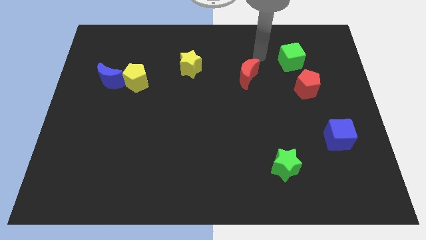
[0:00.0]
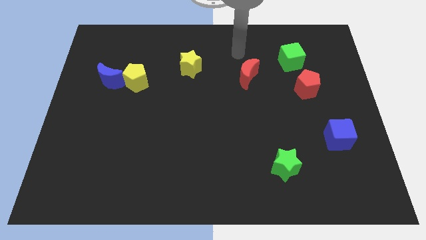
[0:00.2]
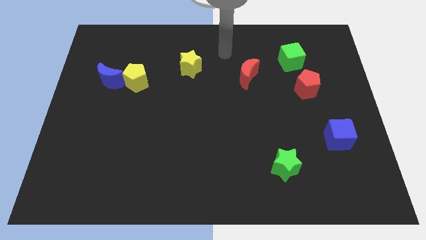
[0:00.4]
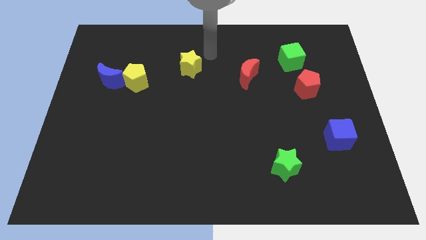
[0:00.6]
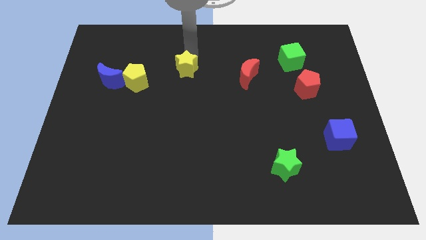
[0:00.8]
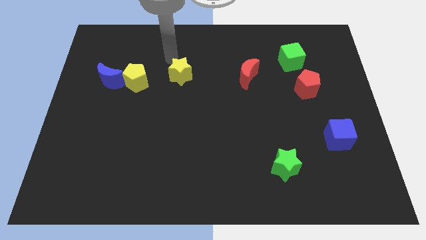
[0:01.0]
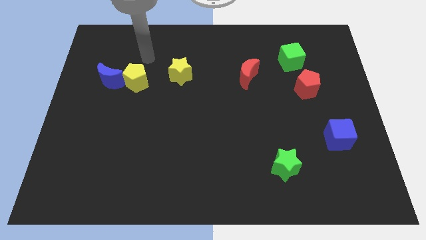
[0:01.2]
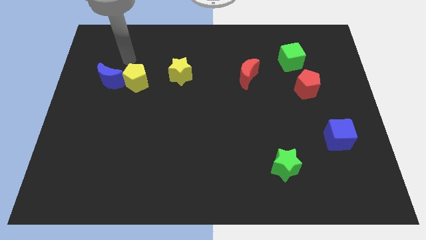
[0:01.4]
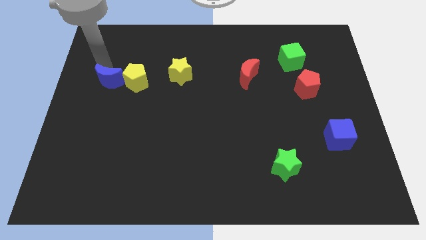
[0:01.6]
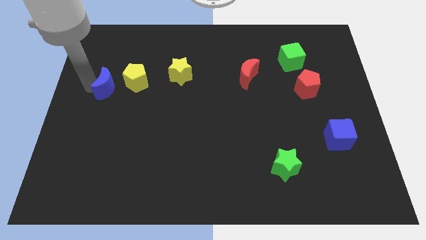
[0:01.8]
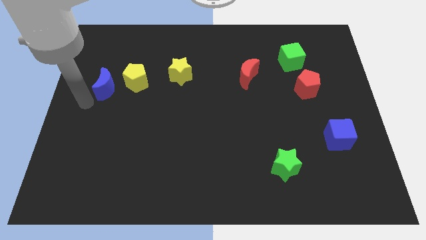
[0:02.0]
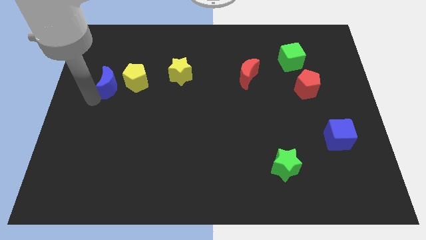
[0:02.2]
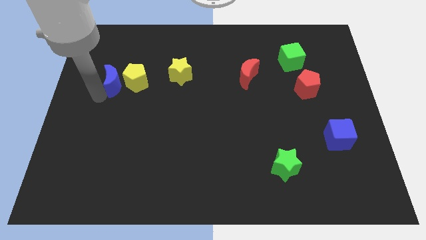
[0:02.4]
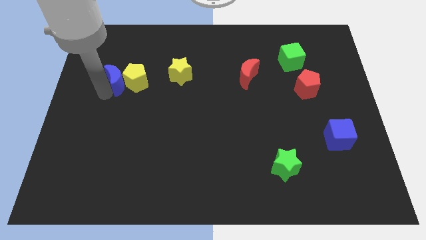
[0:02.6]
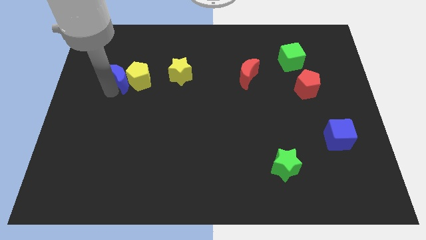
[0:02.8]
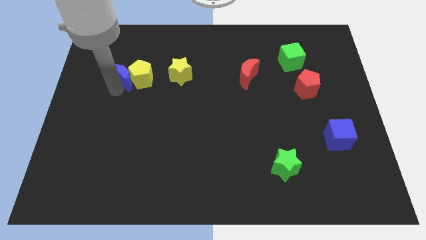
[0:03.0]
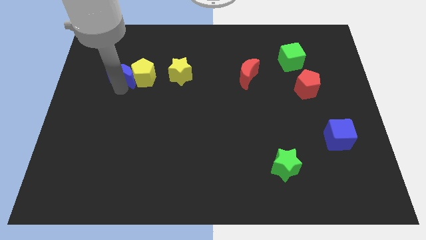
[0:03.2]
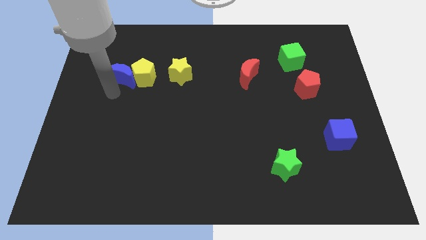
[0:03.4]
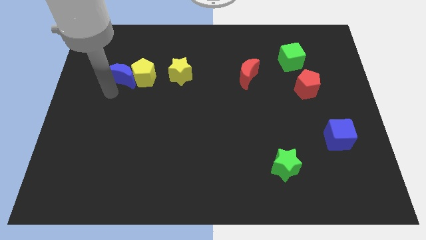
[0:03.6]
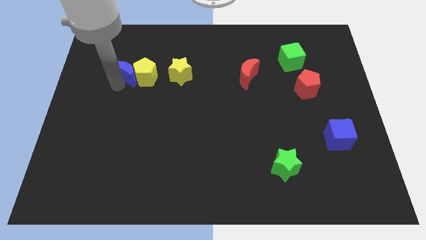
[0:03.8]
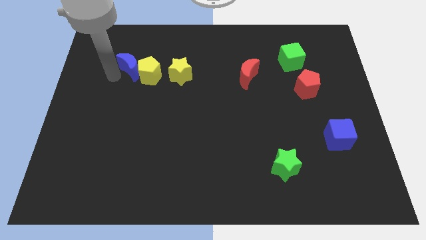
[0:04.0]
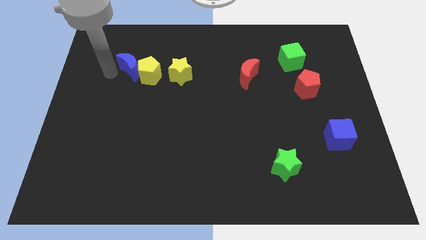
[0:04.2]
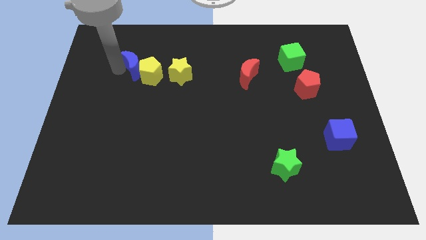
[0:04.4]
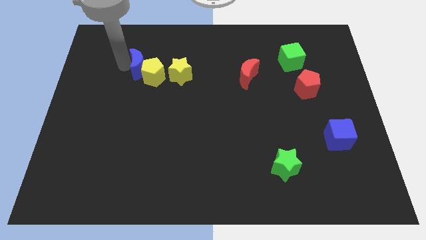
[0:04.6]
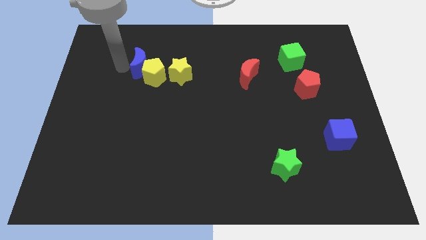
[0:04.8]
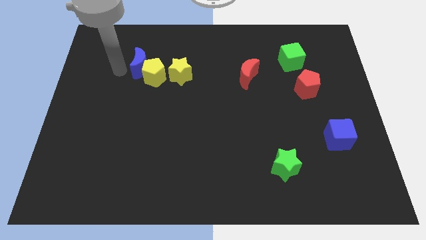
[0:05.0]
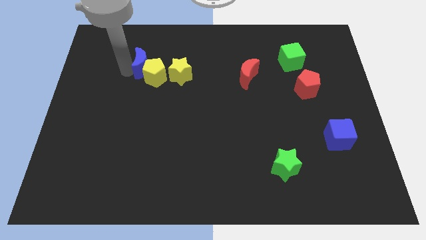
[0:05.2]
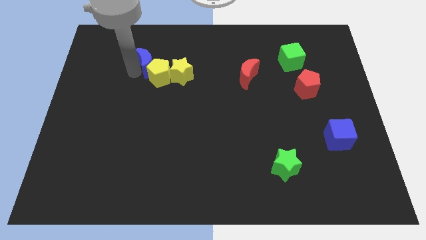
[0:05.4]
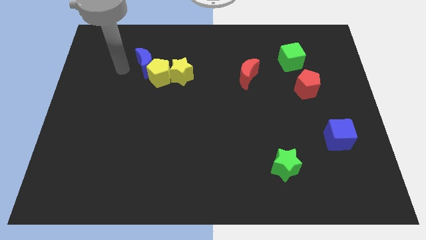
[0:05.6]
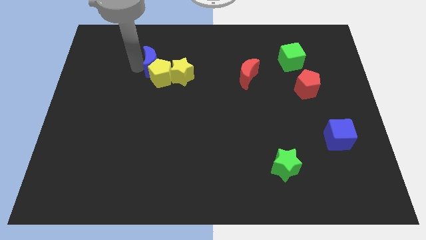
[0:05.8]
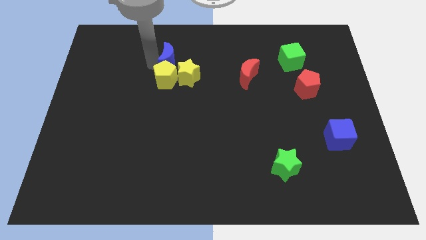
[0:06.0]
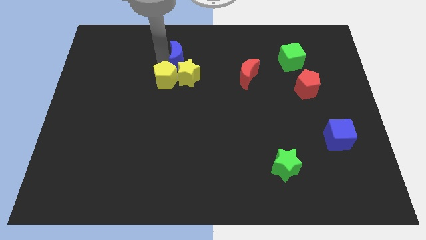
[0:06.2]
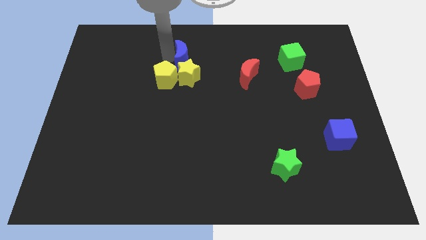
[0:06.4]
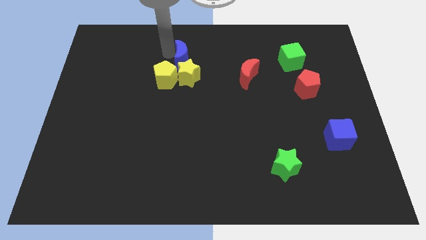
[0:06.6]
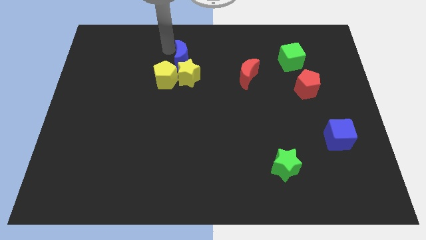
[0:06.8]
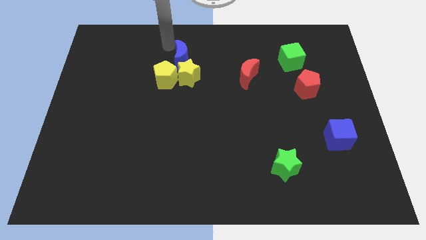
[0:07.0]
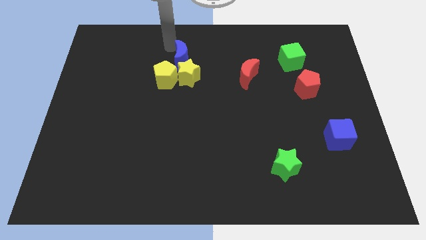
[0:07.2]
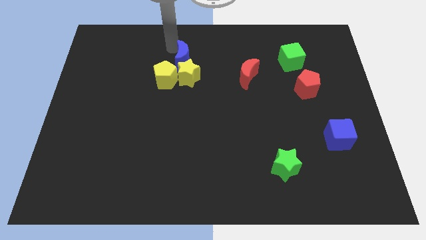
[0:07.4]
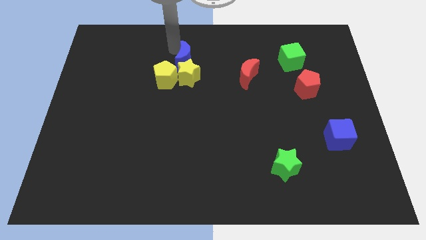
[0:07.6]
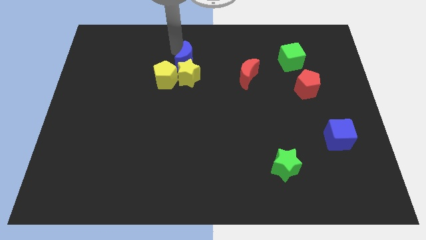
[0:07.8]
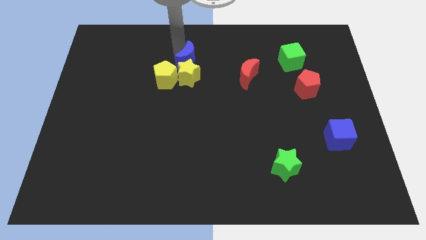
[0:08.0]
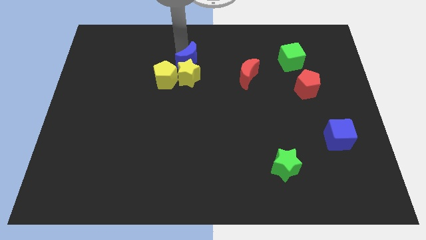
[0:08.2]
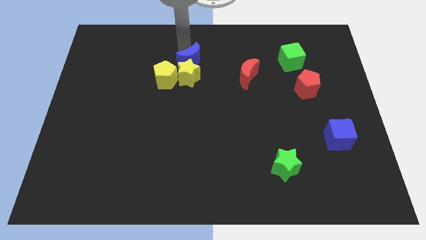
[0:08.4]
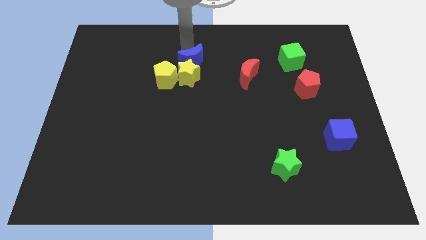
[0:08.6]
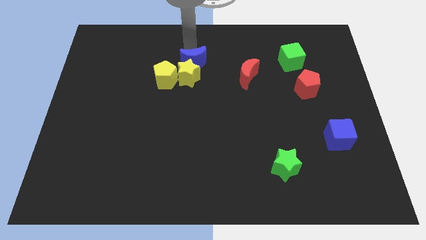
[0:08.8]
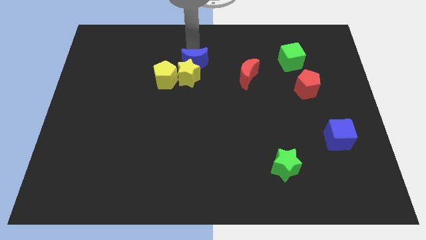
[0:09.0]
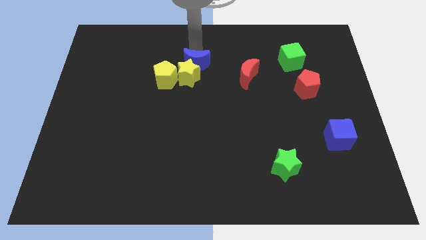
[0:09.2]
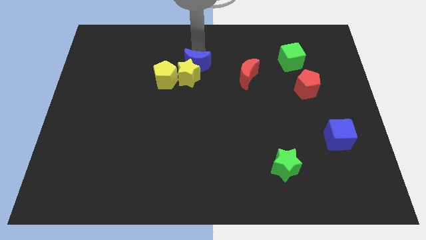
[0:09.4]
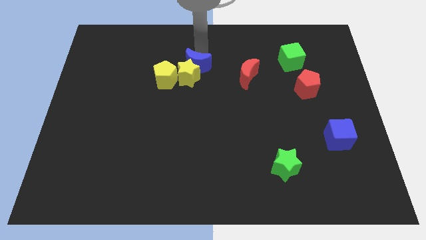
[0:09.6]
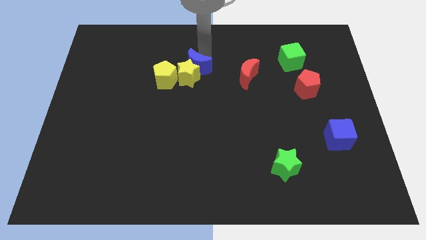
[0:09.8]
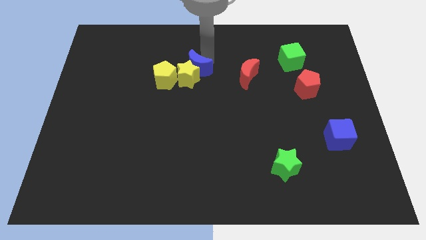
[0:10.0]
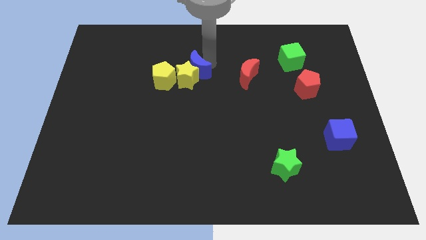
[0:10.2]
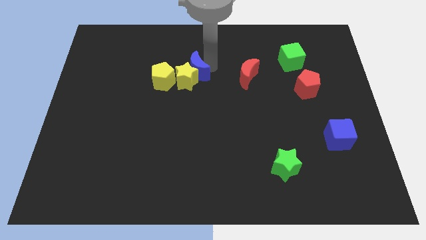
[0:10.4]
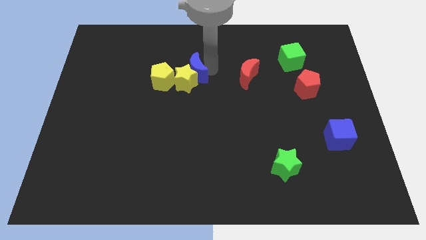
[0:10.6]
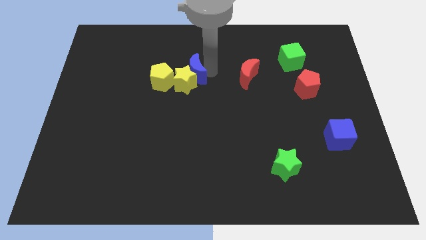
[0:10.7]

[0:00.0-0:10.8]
slide the blue moon diagonally up and to the right of the yellow pentagon

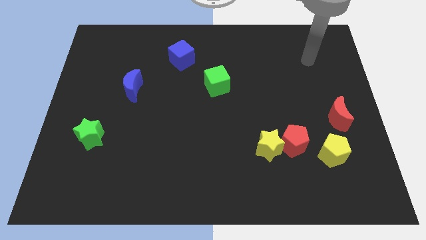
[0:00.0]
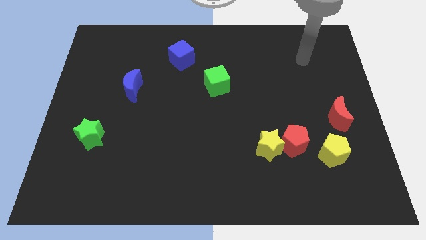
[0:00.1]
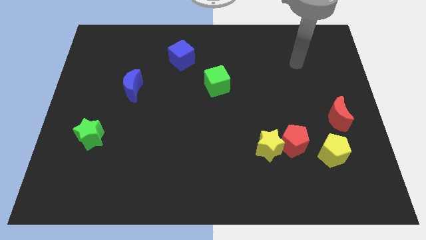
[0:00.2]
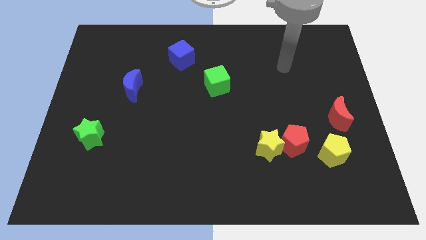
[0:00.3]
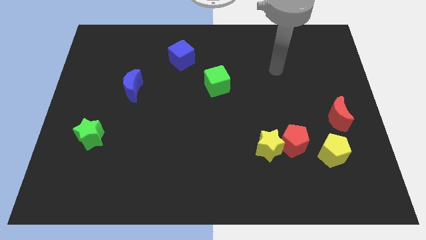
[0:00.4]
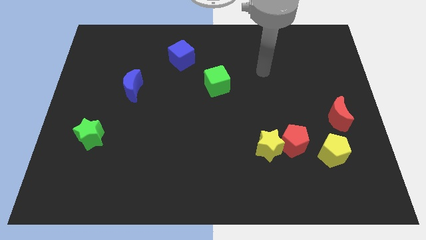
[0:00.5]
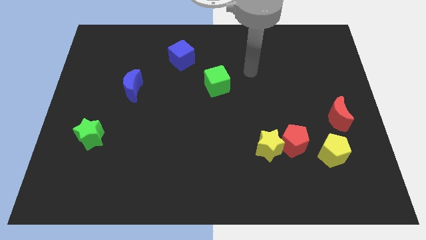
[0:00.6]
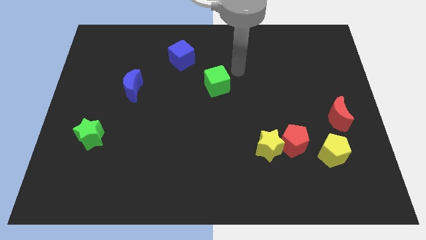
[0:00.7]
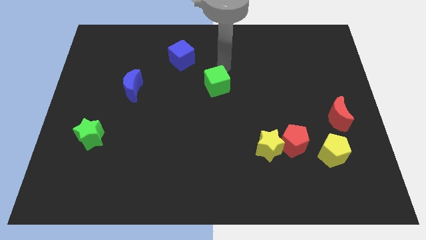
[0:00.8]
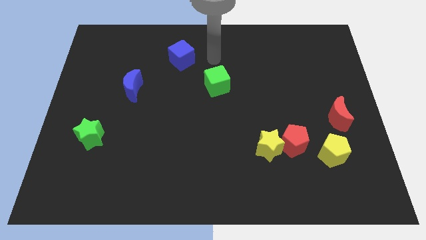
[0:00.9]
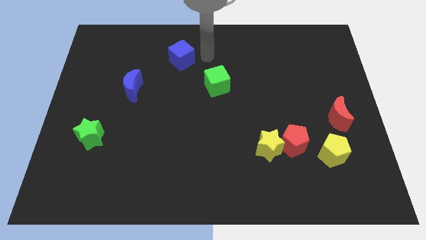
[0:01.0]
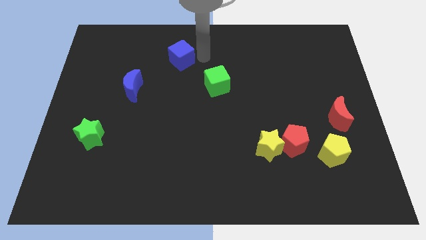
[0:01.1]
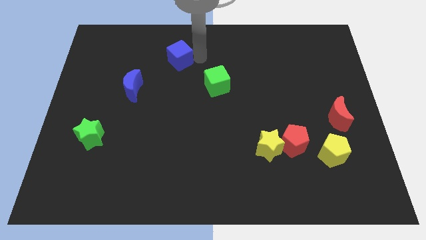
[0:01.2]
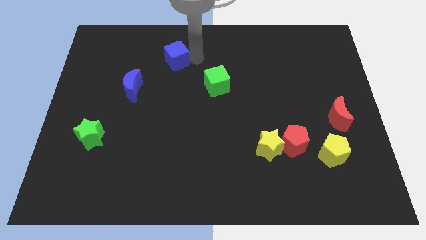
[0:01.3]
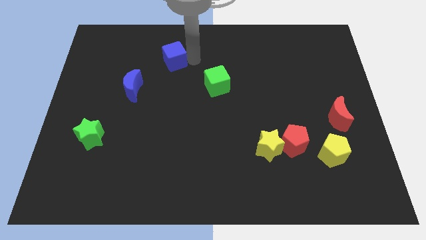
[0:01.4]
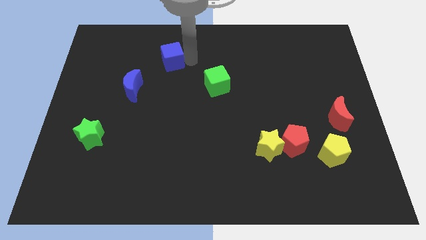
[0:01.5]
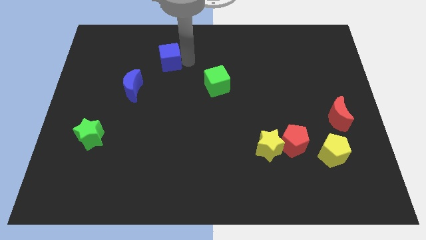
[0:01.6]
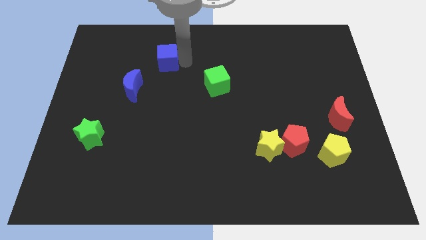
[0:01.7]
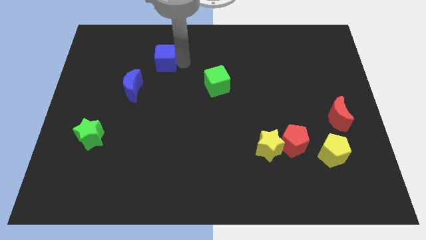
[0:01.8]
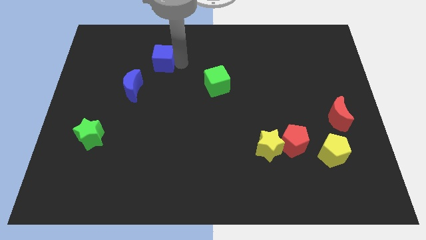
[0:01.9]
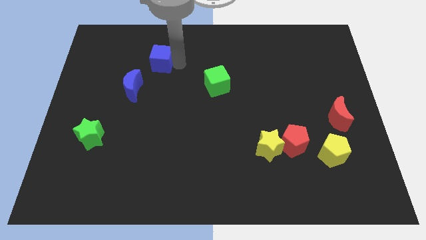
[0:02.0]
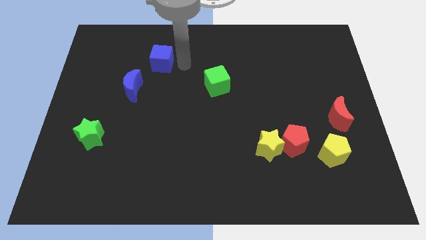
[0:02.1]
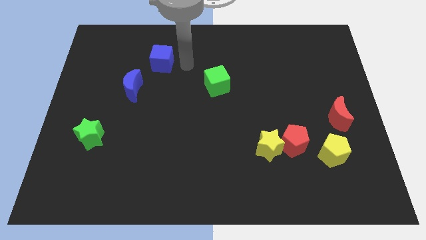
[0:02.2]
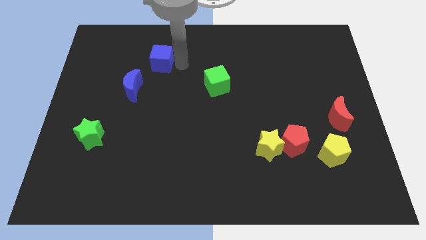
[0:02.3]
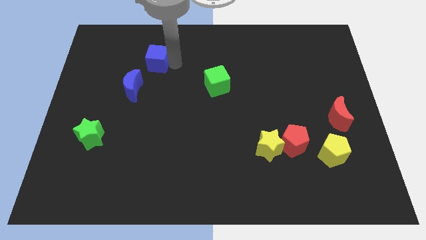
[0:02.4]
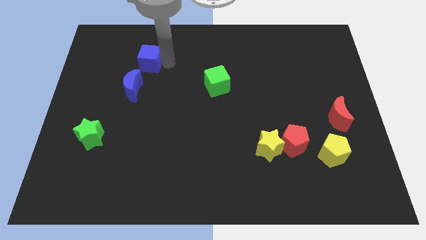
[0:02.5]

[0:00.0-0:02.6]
slide the blue cube above the blue moon
